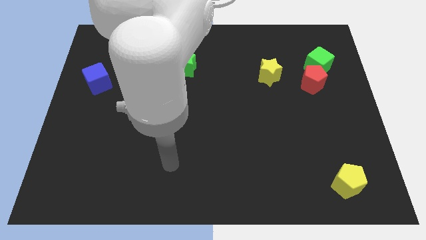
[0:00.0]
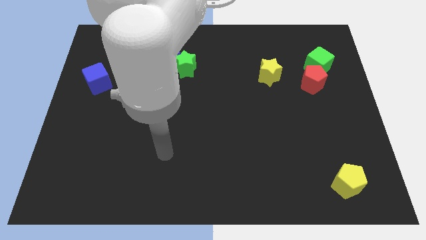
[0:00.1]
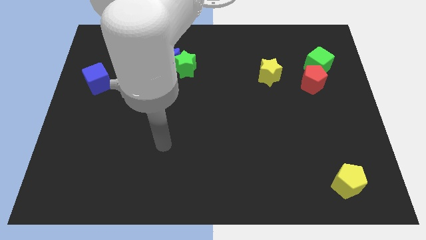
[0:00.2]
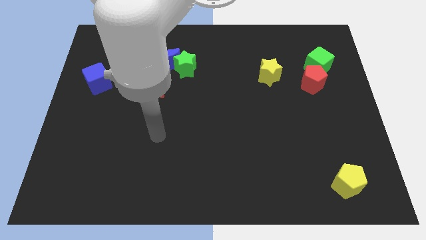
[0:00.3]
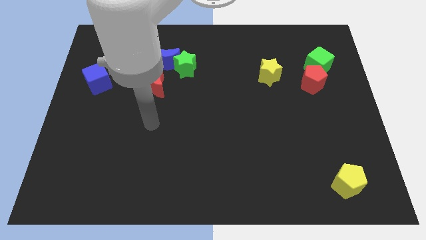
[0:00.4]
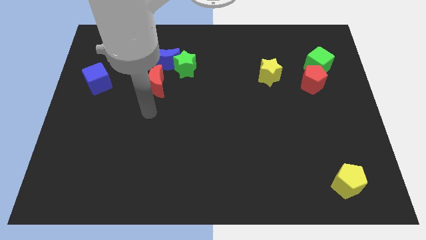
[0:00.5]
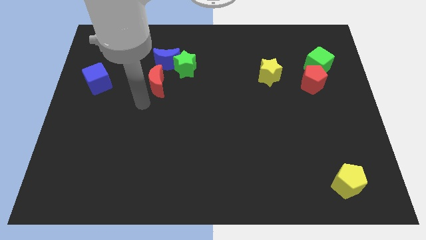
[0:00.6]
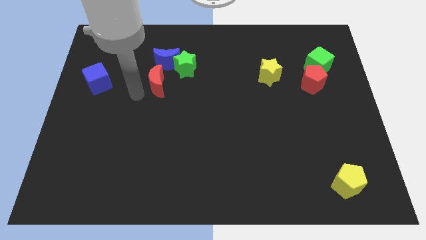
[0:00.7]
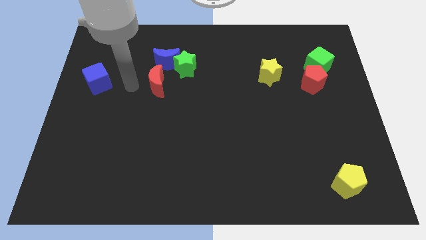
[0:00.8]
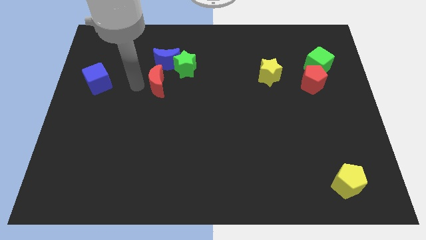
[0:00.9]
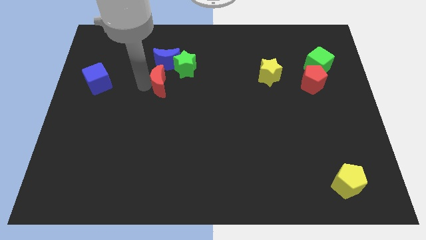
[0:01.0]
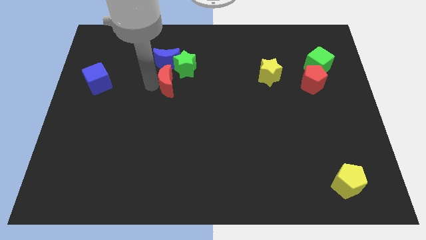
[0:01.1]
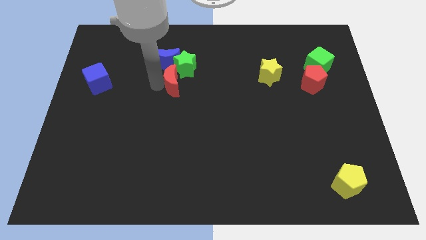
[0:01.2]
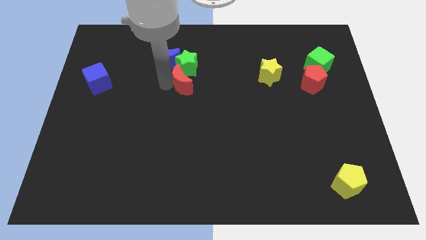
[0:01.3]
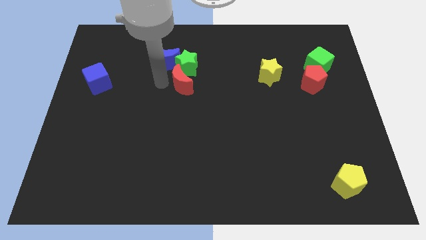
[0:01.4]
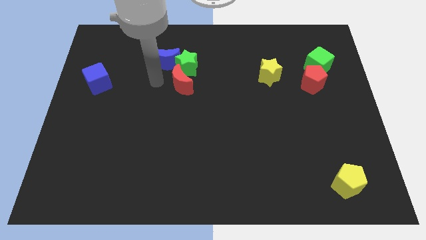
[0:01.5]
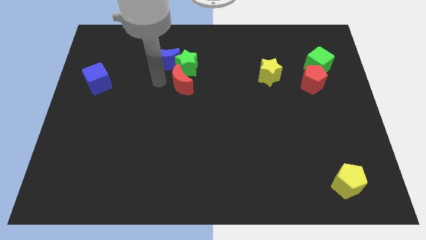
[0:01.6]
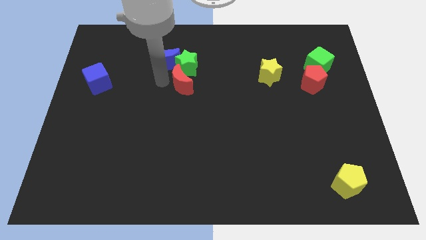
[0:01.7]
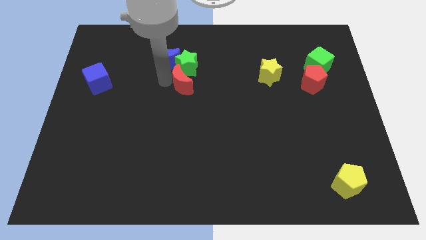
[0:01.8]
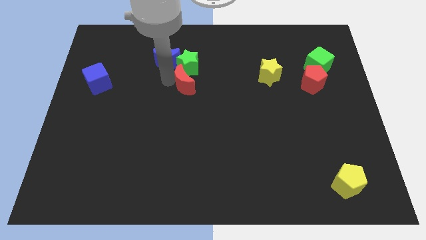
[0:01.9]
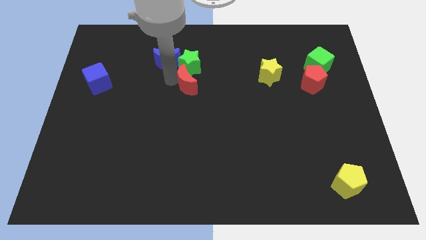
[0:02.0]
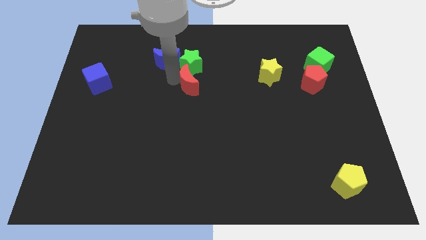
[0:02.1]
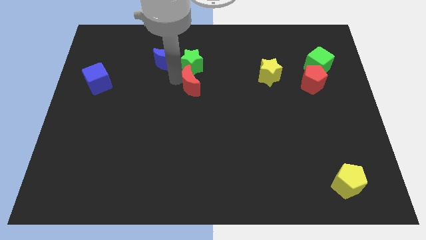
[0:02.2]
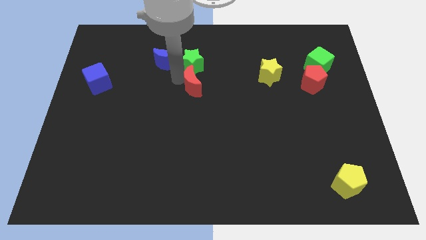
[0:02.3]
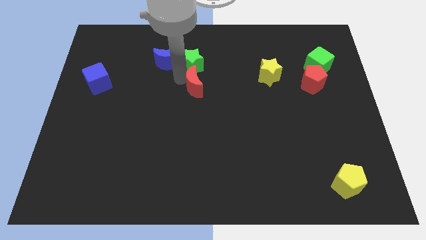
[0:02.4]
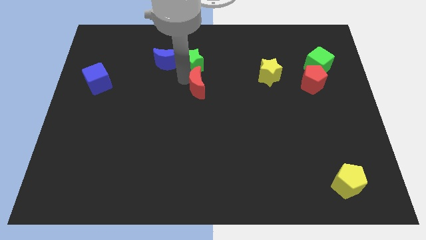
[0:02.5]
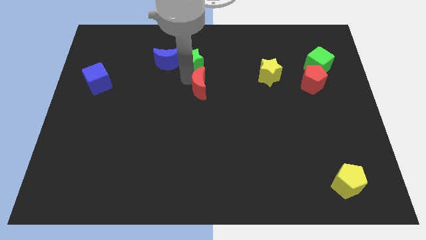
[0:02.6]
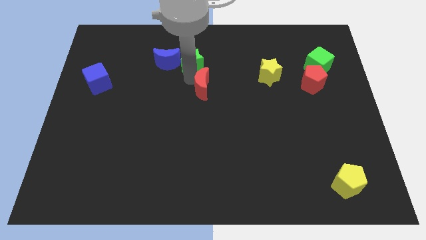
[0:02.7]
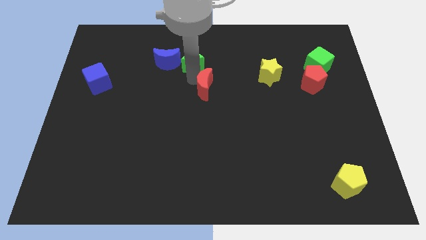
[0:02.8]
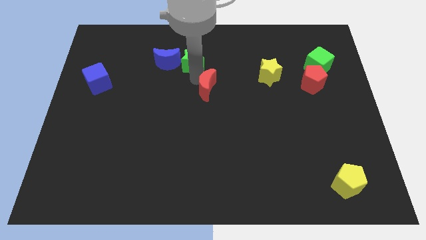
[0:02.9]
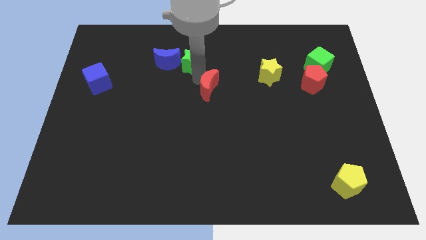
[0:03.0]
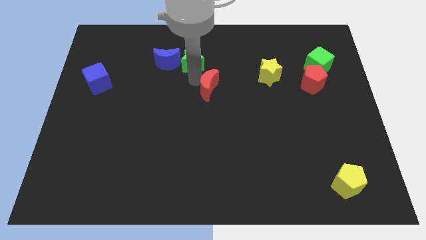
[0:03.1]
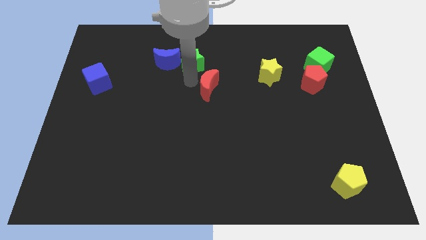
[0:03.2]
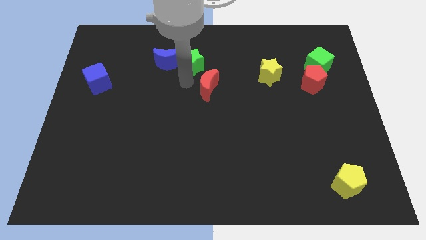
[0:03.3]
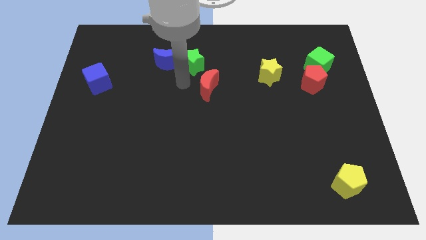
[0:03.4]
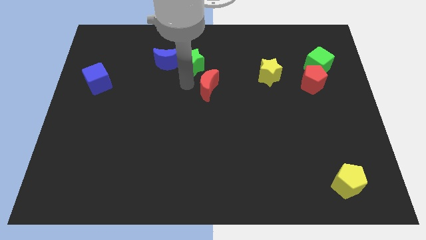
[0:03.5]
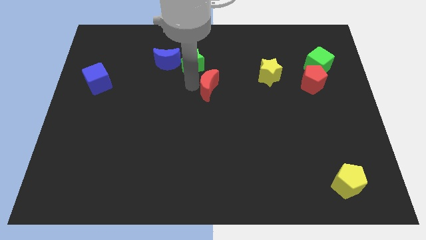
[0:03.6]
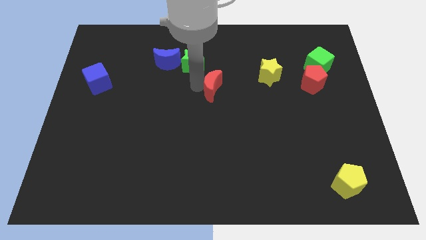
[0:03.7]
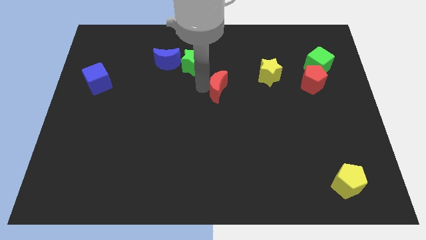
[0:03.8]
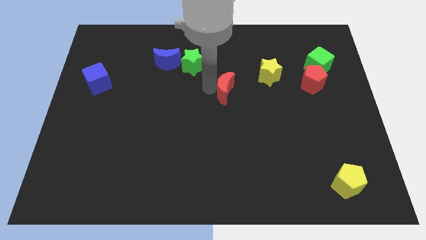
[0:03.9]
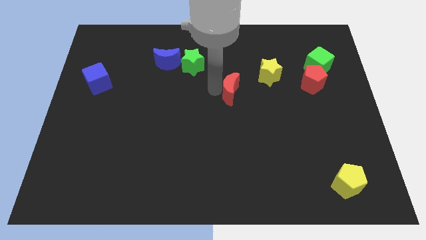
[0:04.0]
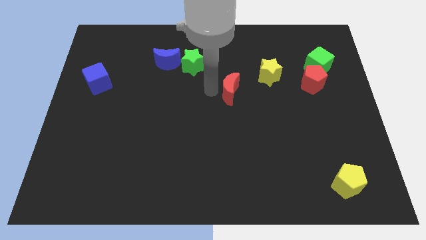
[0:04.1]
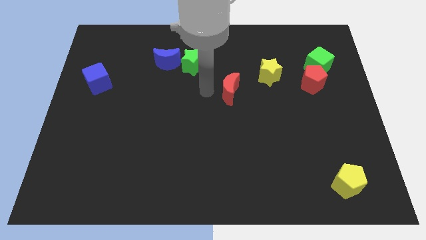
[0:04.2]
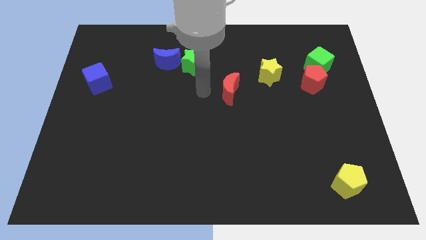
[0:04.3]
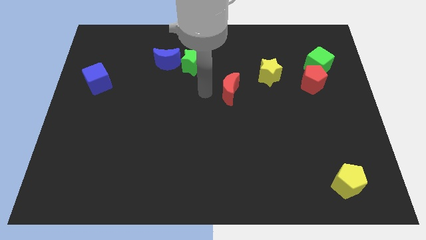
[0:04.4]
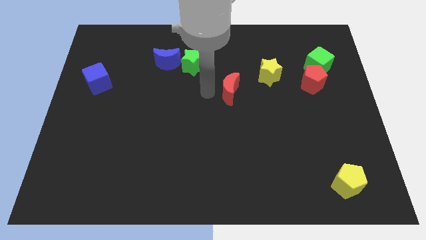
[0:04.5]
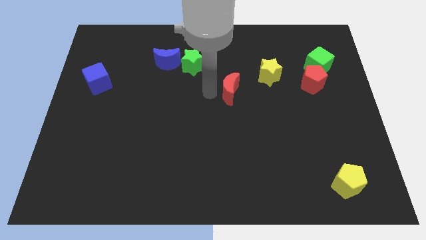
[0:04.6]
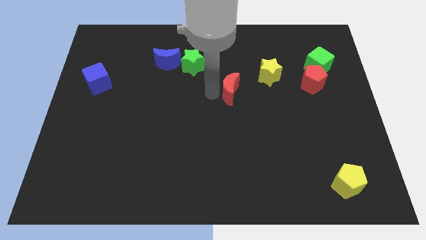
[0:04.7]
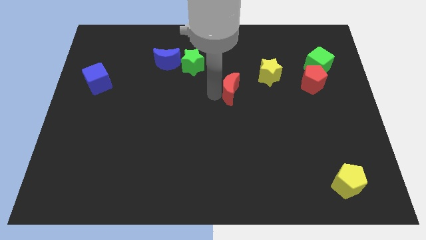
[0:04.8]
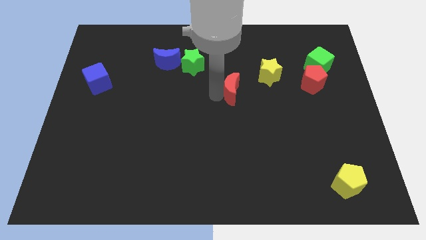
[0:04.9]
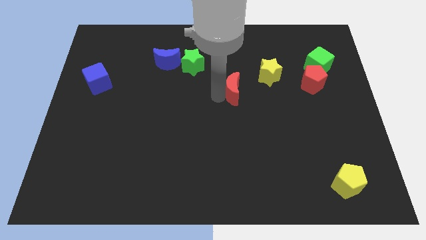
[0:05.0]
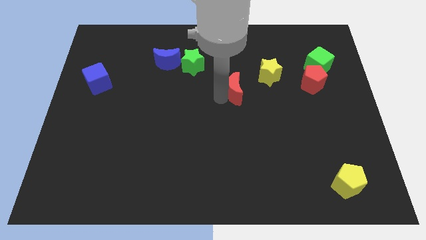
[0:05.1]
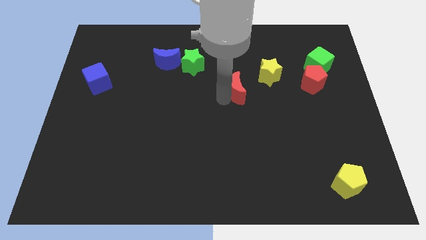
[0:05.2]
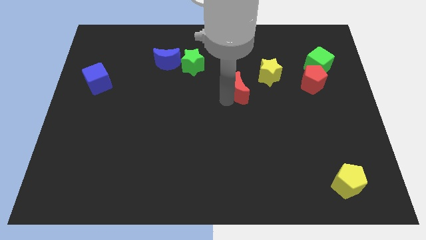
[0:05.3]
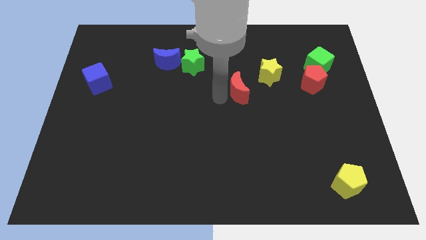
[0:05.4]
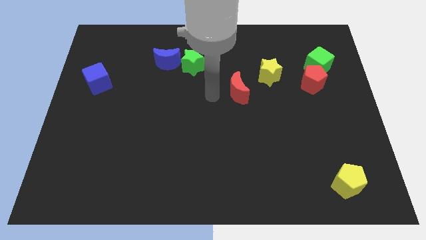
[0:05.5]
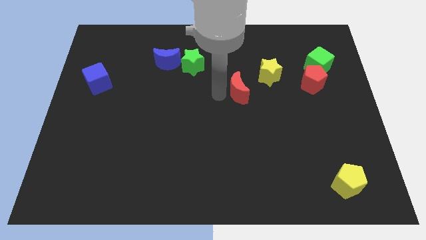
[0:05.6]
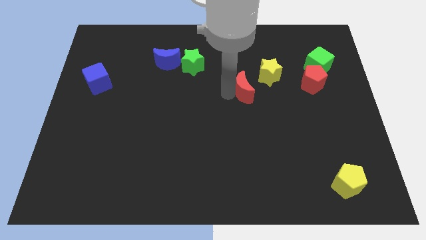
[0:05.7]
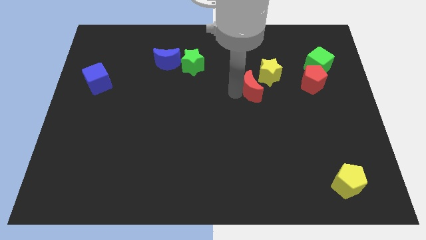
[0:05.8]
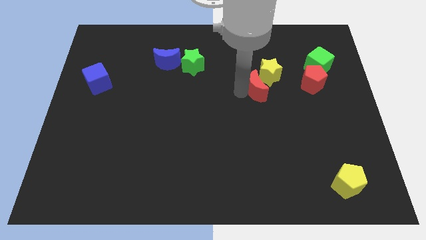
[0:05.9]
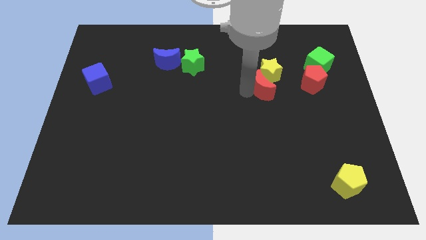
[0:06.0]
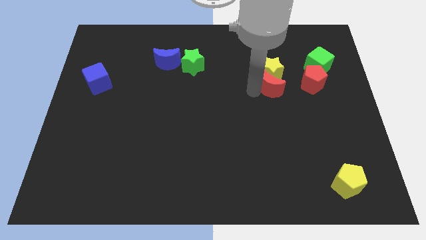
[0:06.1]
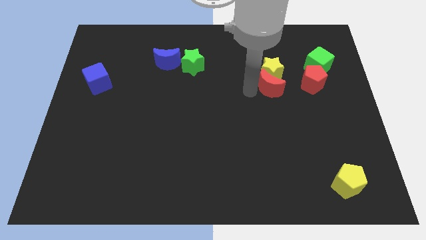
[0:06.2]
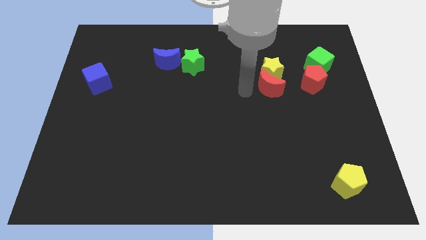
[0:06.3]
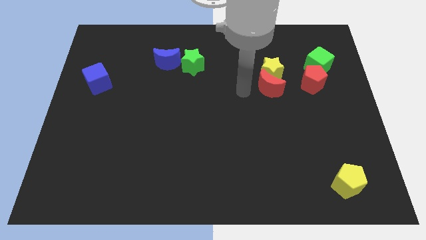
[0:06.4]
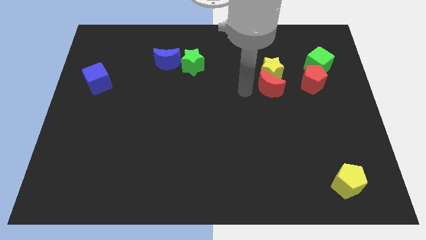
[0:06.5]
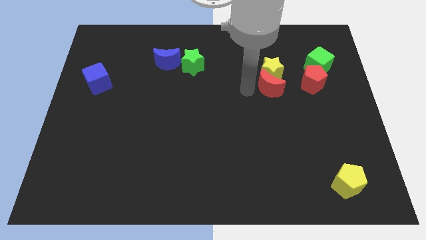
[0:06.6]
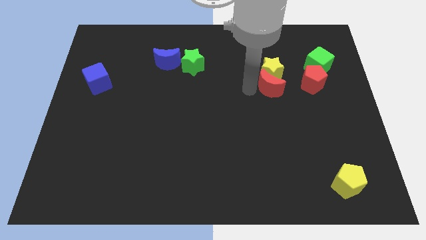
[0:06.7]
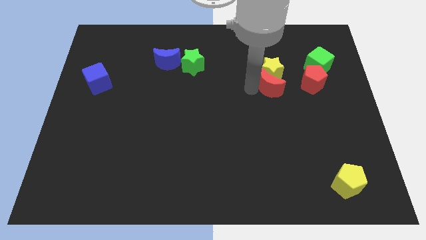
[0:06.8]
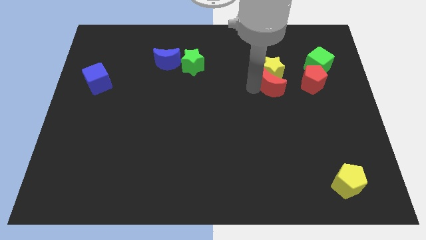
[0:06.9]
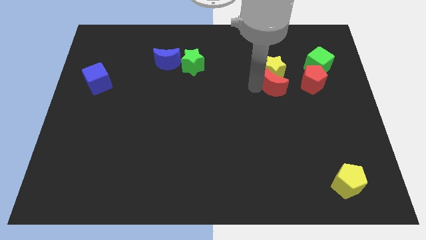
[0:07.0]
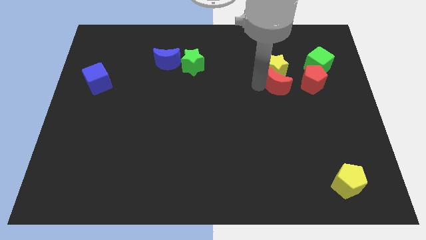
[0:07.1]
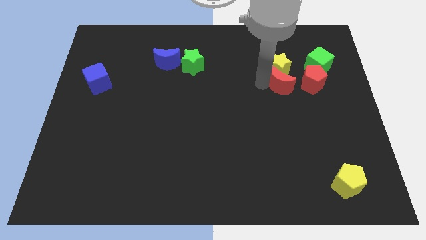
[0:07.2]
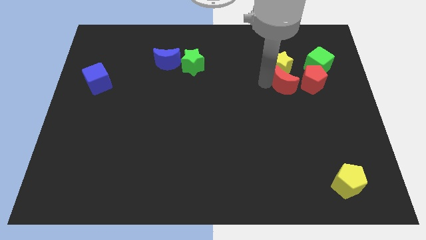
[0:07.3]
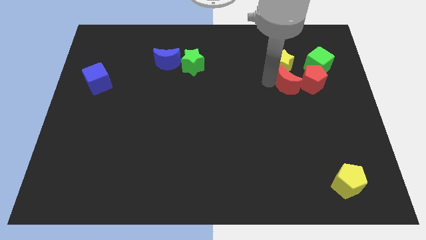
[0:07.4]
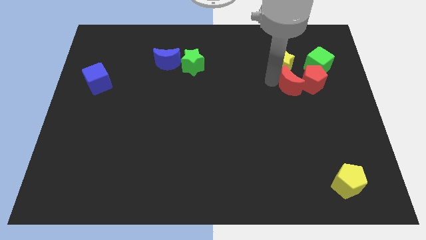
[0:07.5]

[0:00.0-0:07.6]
move the red moon towards the red pentagon

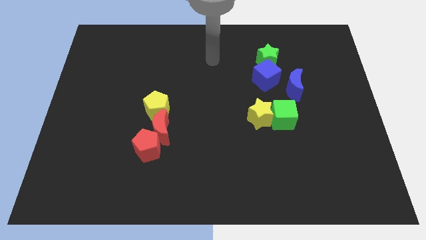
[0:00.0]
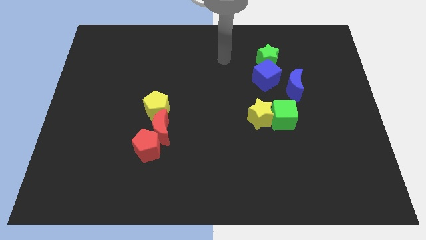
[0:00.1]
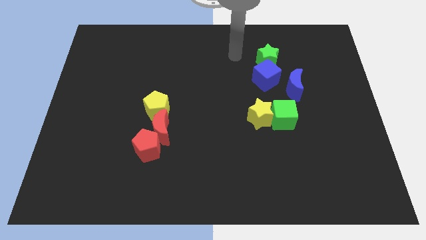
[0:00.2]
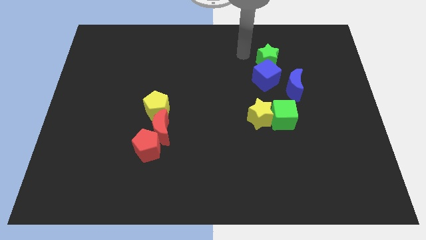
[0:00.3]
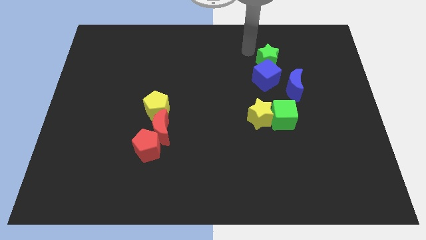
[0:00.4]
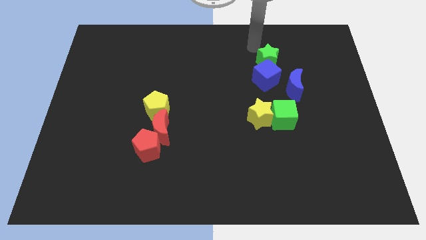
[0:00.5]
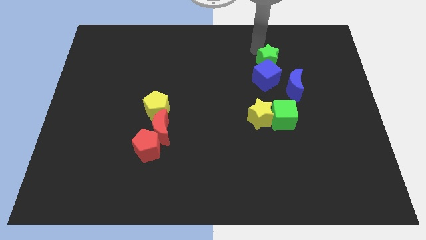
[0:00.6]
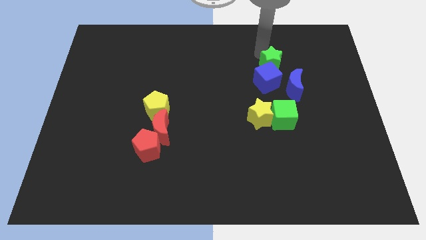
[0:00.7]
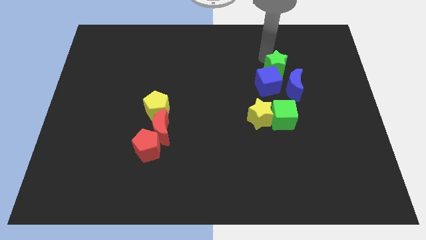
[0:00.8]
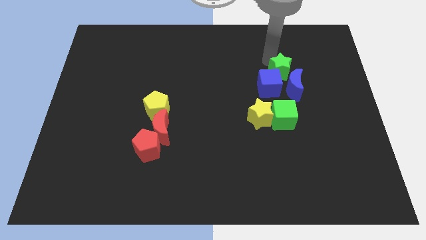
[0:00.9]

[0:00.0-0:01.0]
slide the green star close to the blue moon
